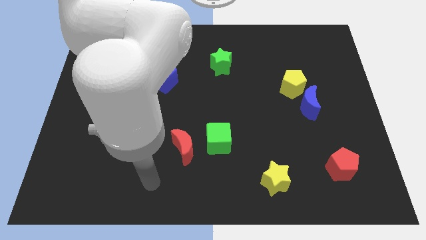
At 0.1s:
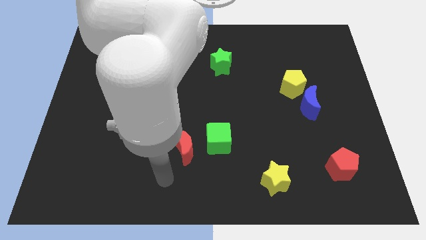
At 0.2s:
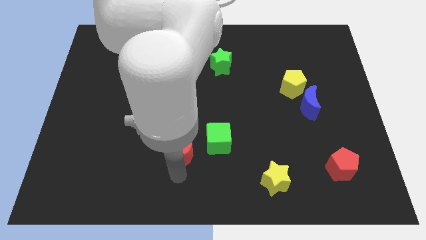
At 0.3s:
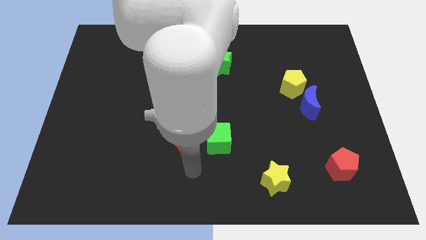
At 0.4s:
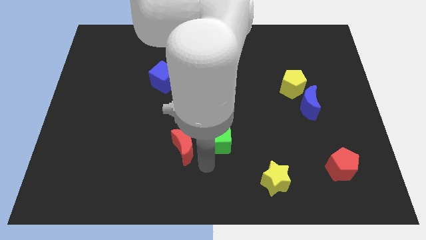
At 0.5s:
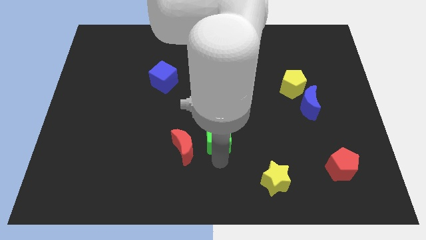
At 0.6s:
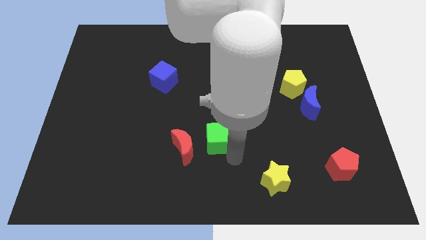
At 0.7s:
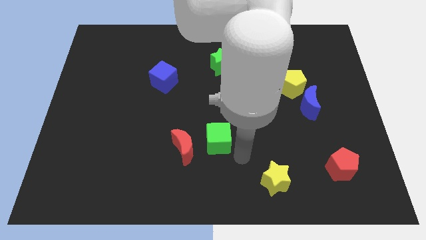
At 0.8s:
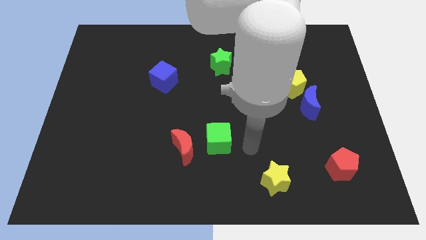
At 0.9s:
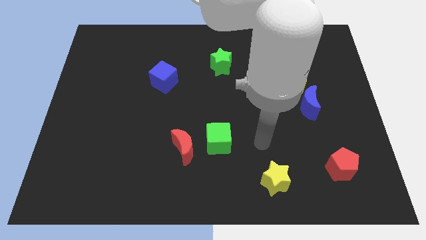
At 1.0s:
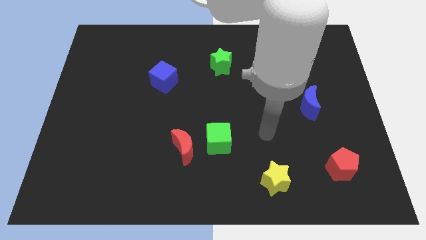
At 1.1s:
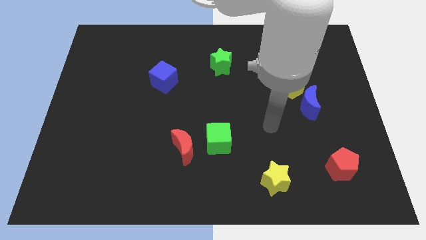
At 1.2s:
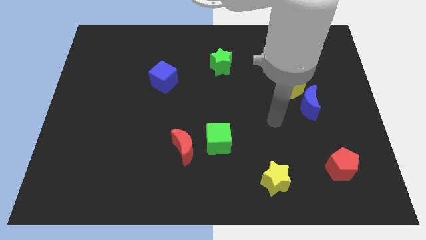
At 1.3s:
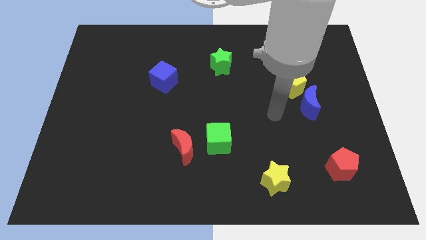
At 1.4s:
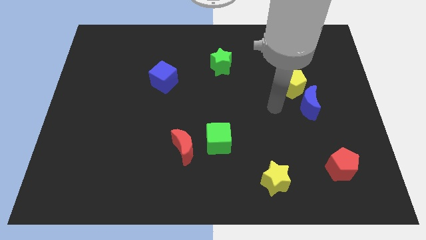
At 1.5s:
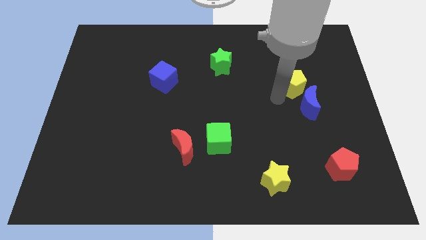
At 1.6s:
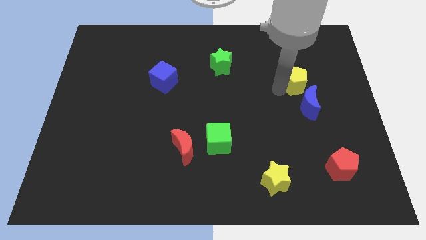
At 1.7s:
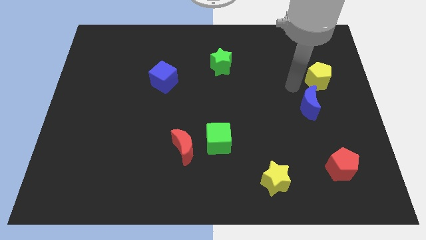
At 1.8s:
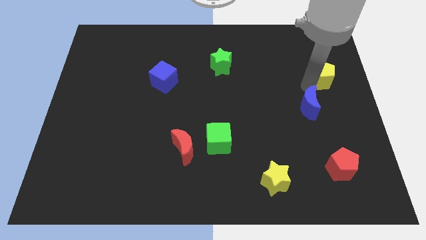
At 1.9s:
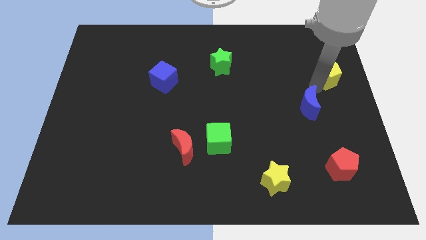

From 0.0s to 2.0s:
separate the blue moon from the yellow pentagon

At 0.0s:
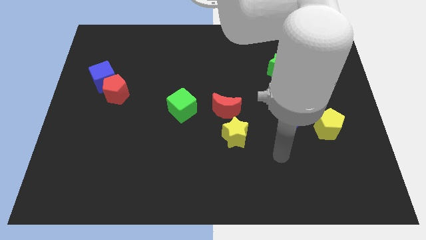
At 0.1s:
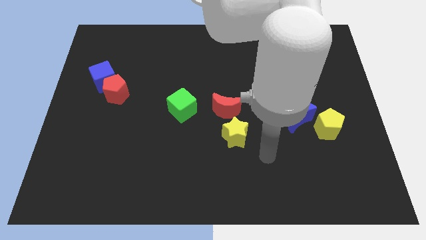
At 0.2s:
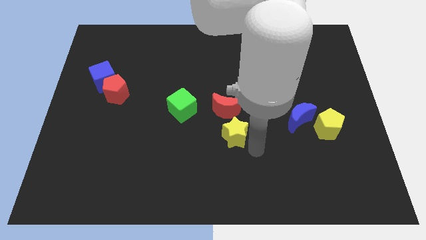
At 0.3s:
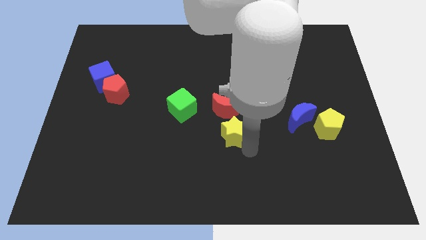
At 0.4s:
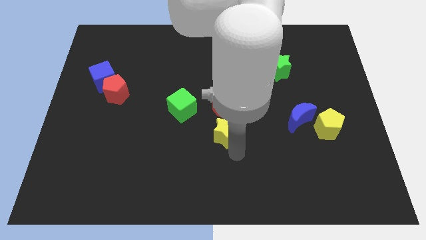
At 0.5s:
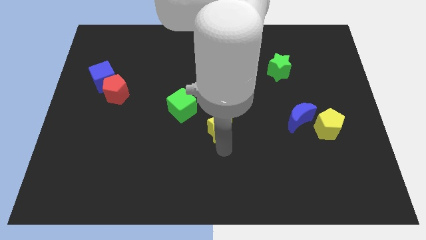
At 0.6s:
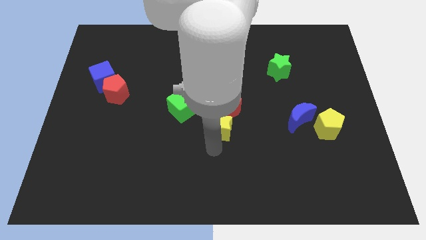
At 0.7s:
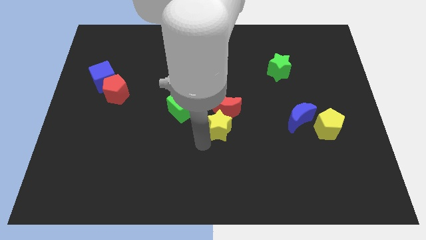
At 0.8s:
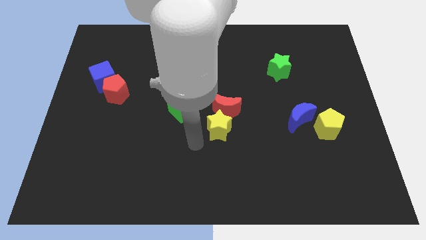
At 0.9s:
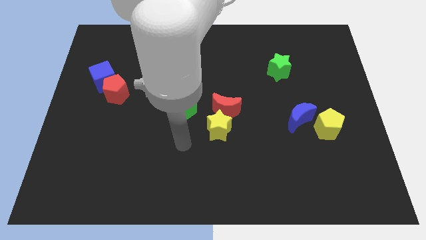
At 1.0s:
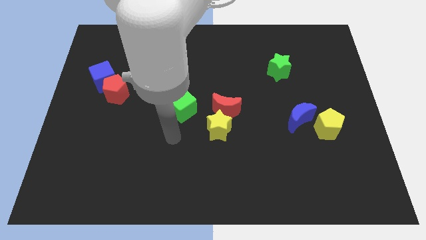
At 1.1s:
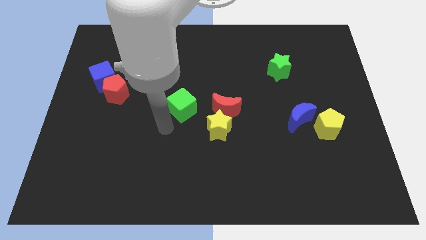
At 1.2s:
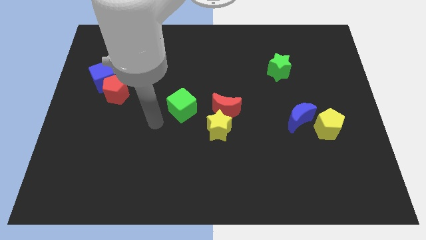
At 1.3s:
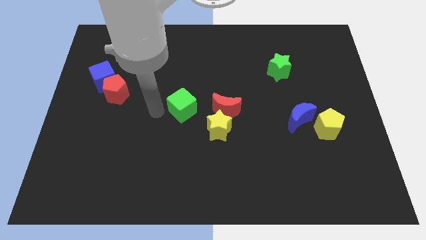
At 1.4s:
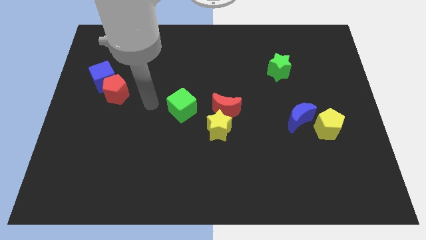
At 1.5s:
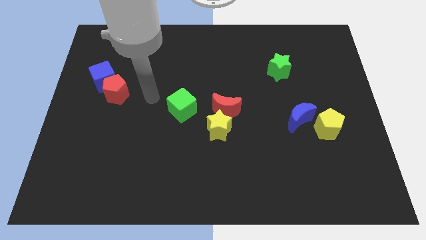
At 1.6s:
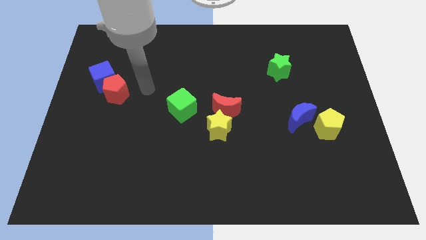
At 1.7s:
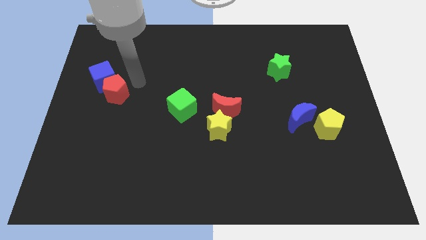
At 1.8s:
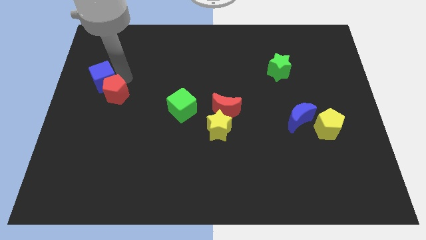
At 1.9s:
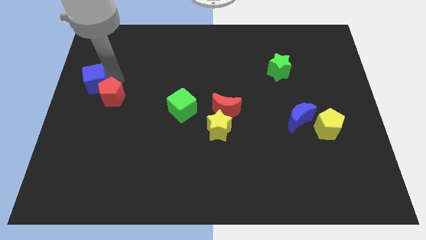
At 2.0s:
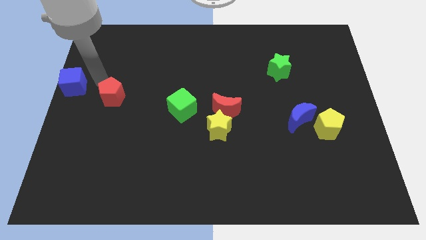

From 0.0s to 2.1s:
separate the red pentagon from the blue cube

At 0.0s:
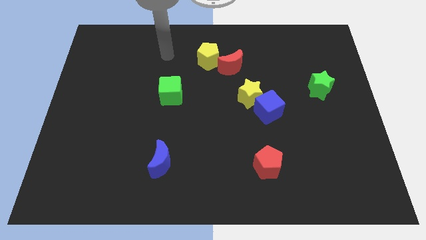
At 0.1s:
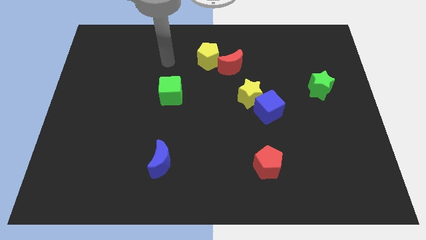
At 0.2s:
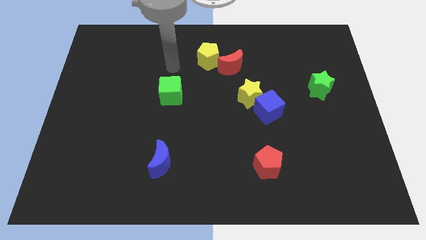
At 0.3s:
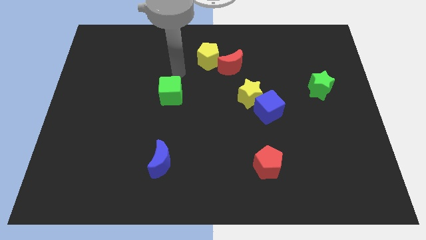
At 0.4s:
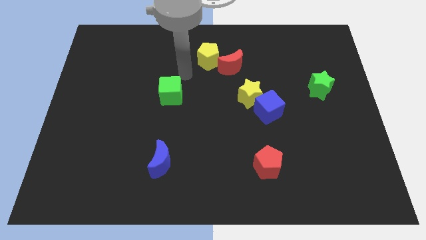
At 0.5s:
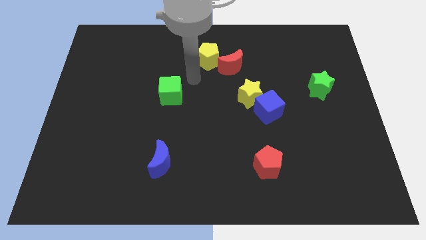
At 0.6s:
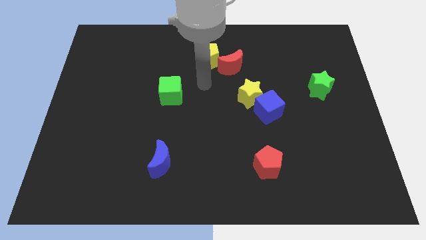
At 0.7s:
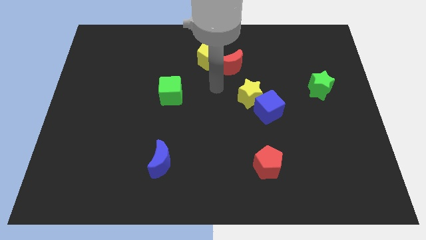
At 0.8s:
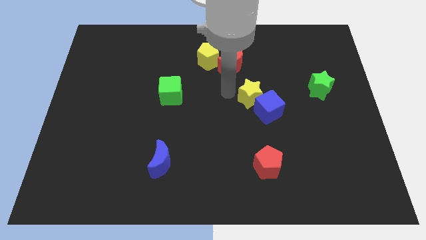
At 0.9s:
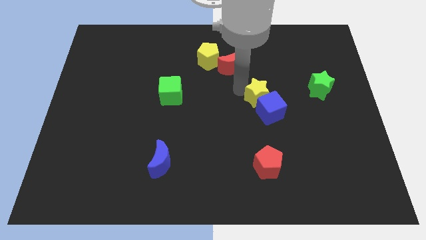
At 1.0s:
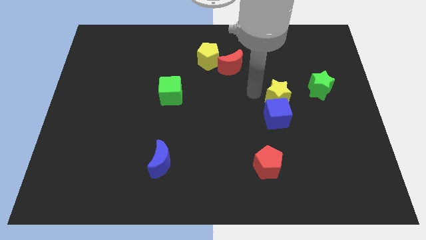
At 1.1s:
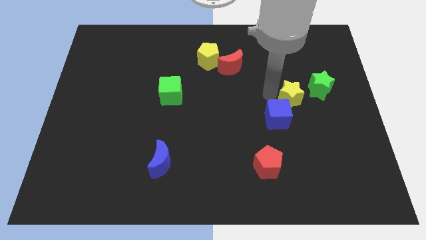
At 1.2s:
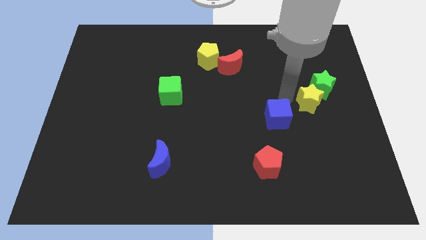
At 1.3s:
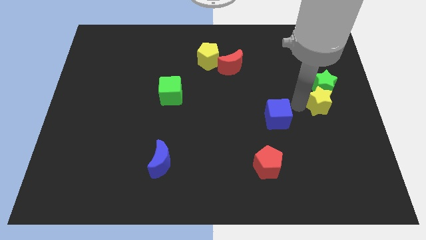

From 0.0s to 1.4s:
pull the blue cube apart from the yellow star

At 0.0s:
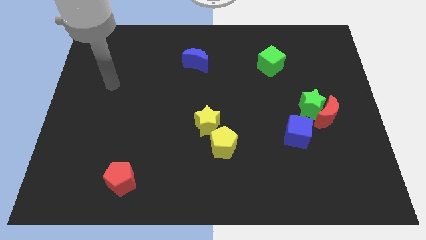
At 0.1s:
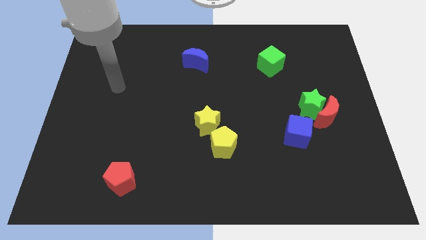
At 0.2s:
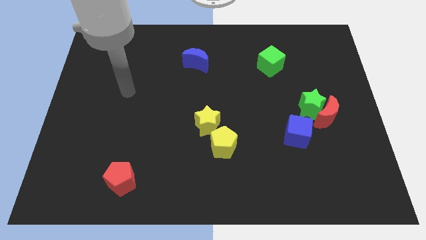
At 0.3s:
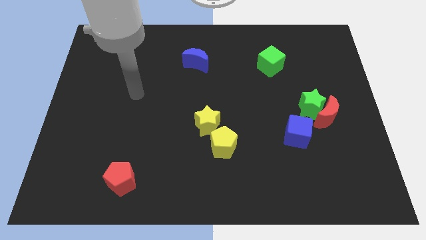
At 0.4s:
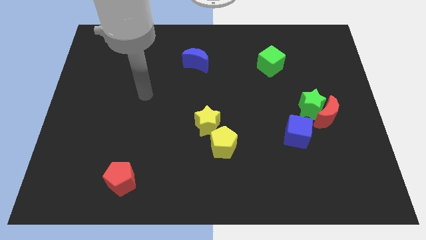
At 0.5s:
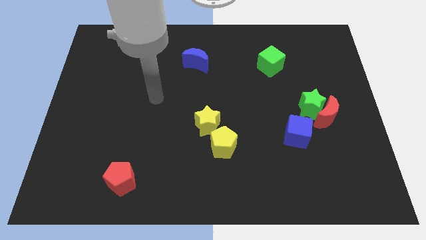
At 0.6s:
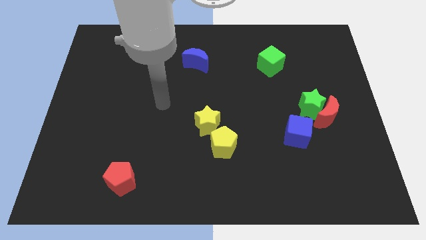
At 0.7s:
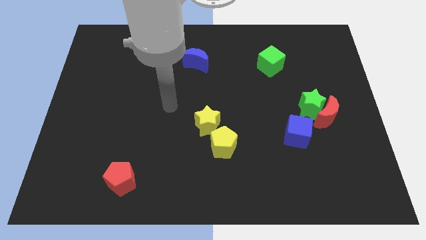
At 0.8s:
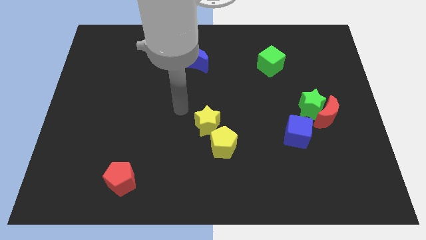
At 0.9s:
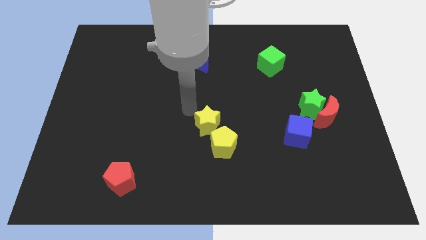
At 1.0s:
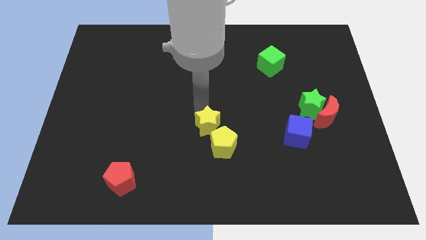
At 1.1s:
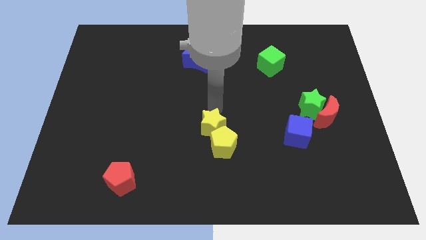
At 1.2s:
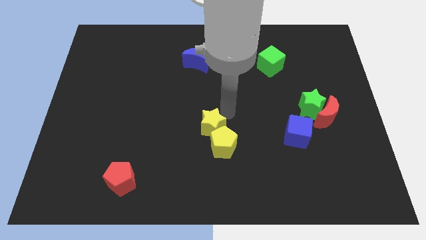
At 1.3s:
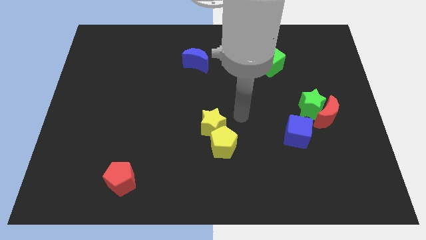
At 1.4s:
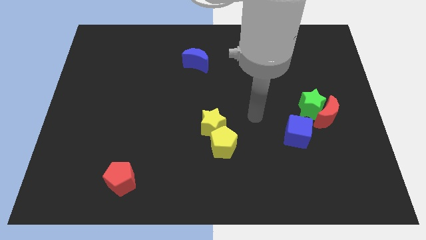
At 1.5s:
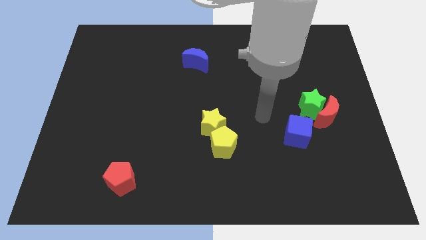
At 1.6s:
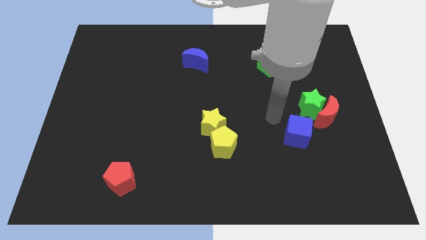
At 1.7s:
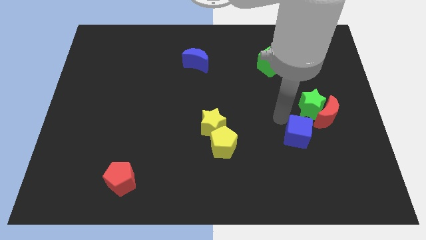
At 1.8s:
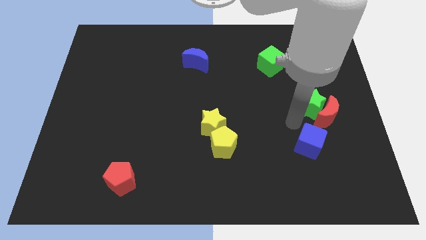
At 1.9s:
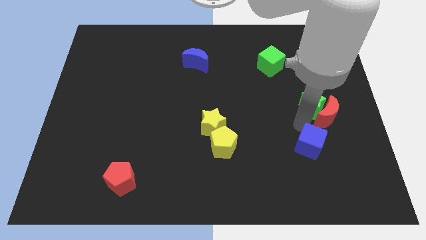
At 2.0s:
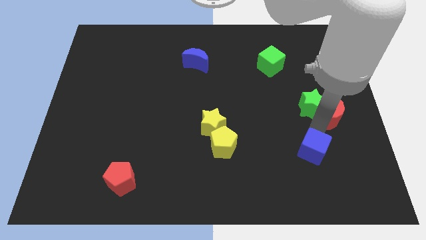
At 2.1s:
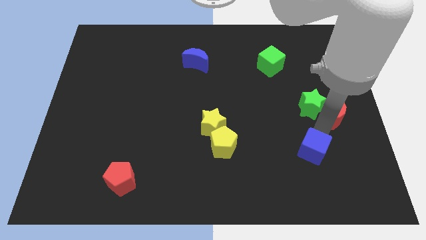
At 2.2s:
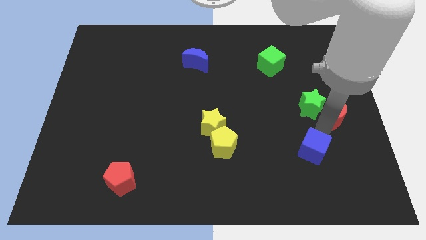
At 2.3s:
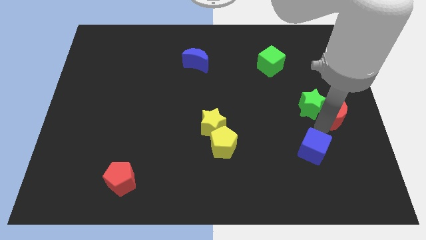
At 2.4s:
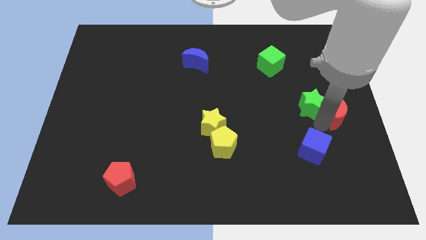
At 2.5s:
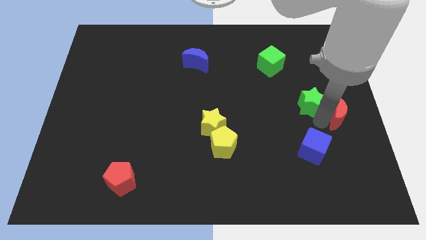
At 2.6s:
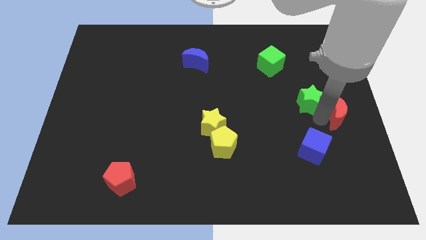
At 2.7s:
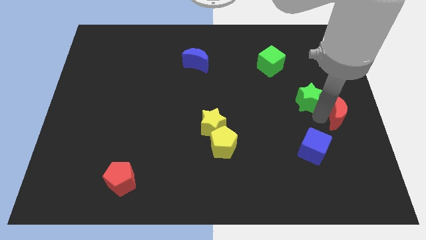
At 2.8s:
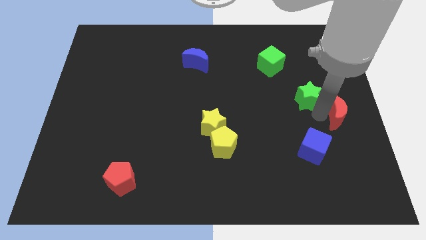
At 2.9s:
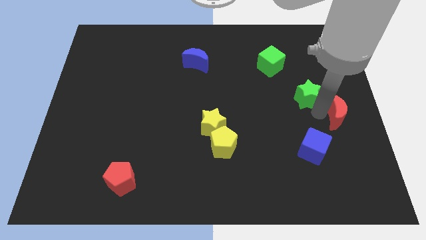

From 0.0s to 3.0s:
separate the green star from the red moon and blue cube

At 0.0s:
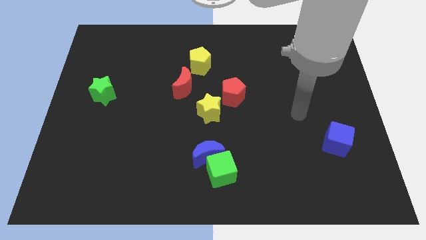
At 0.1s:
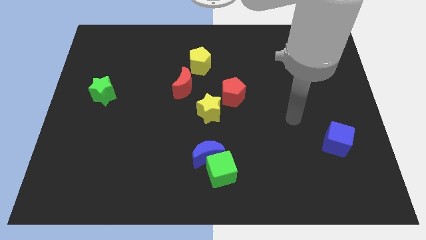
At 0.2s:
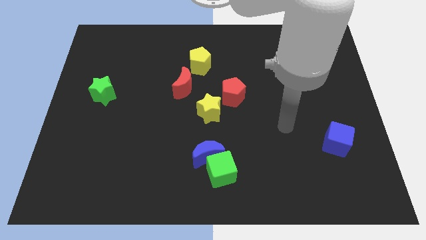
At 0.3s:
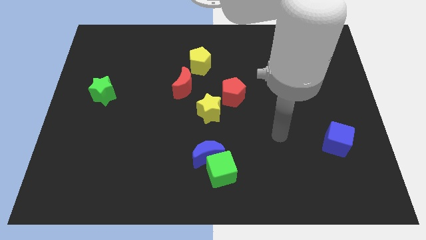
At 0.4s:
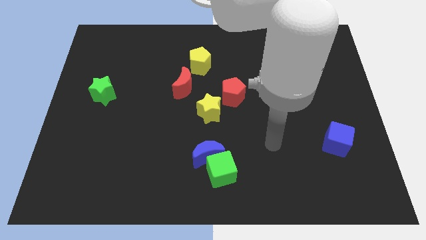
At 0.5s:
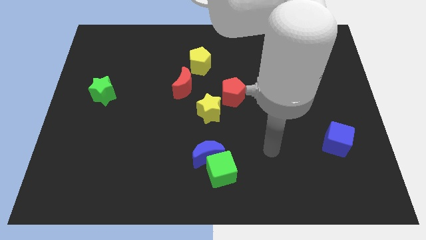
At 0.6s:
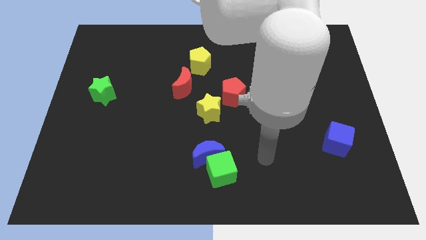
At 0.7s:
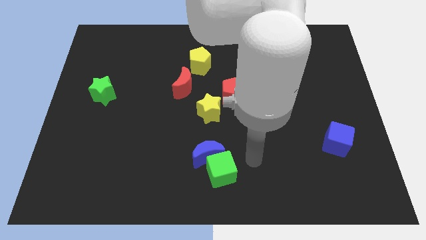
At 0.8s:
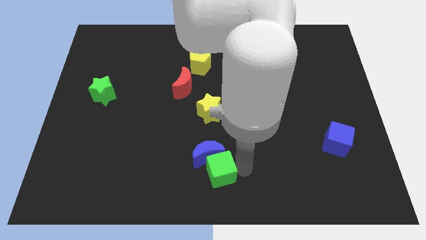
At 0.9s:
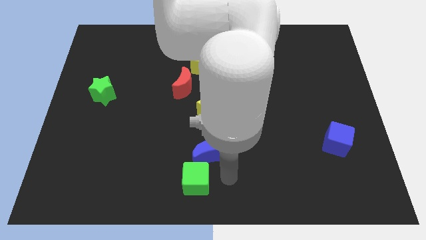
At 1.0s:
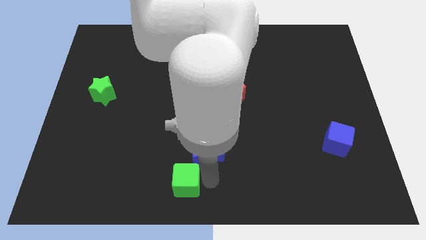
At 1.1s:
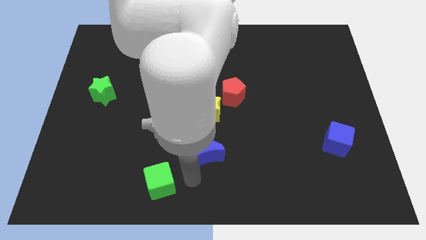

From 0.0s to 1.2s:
pull the blue moon apart from the green cube
